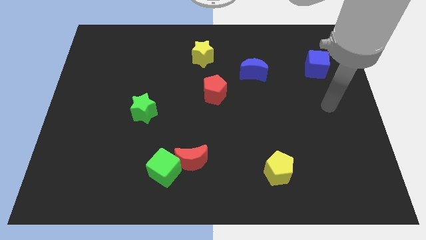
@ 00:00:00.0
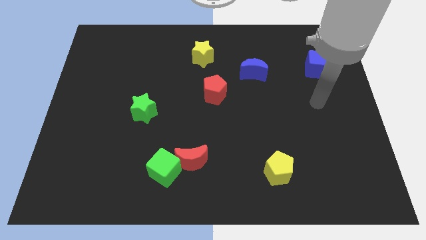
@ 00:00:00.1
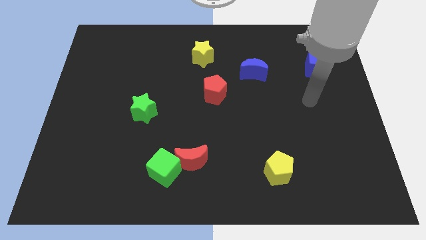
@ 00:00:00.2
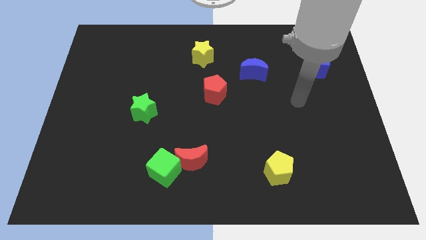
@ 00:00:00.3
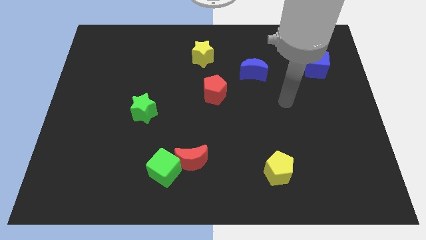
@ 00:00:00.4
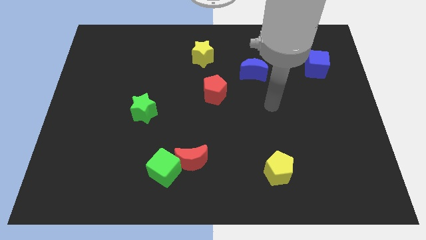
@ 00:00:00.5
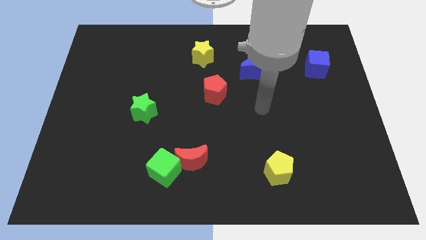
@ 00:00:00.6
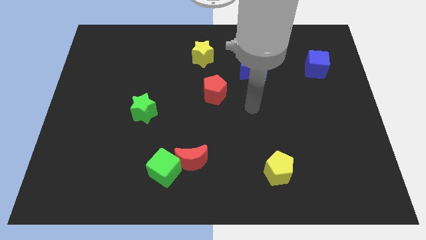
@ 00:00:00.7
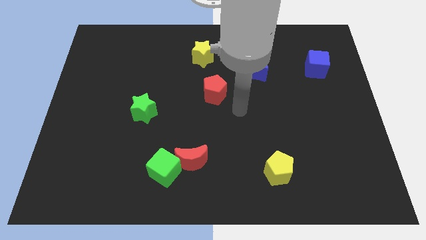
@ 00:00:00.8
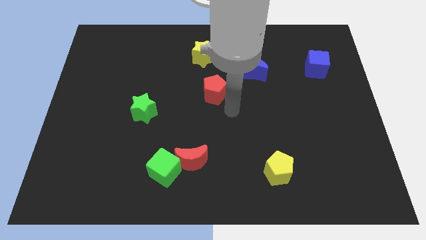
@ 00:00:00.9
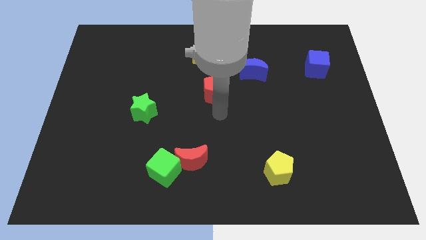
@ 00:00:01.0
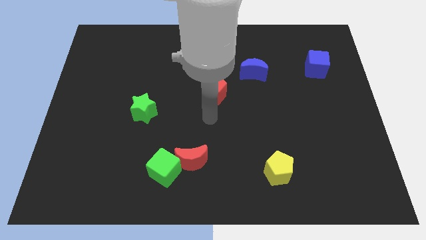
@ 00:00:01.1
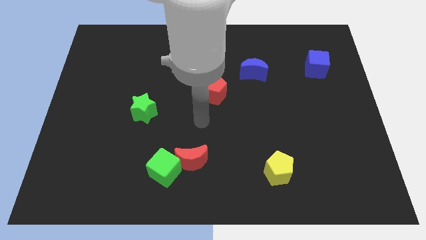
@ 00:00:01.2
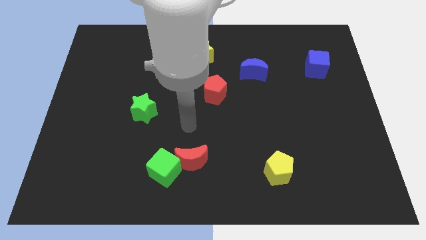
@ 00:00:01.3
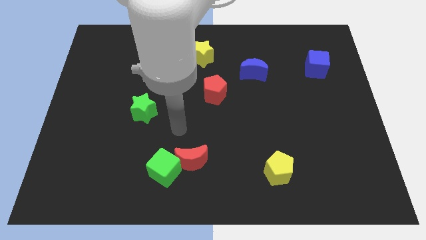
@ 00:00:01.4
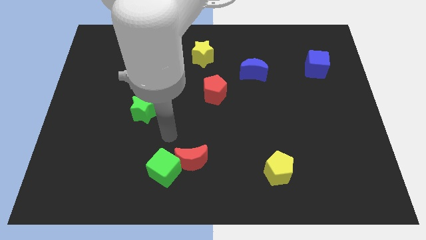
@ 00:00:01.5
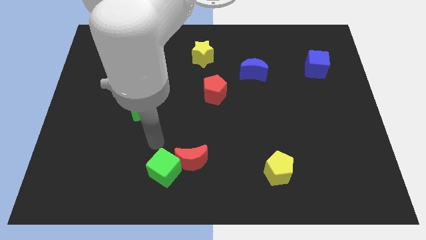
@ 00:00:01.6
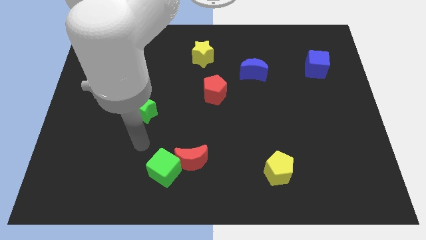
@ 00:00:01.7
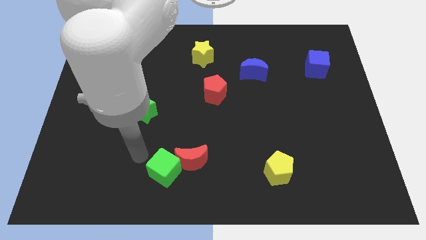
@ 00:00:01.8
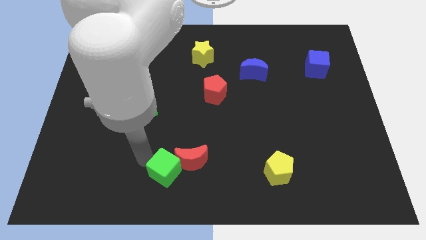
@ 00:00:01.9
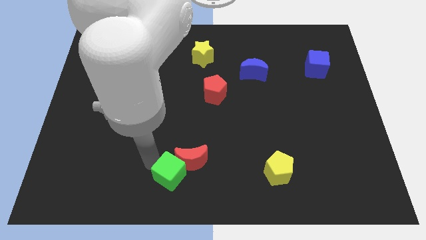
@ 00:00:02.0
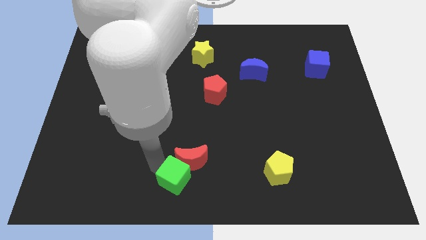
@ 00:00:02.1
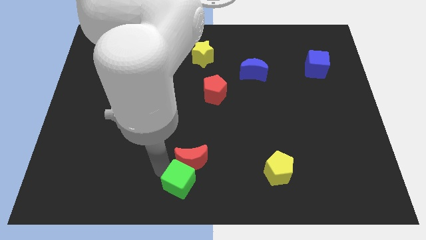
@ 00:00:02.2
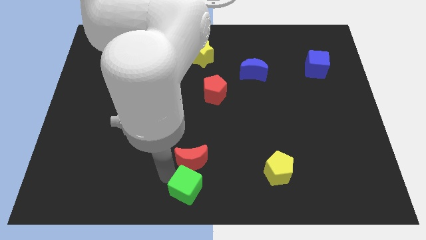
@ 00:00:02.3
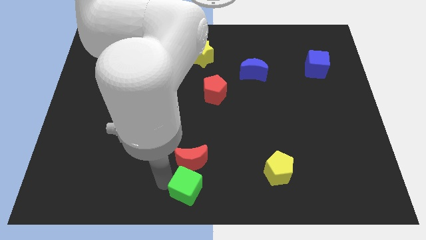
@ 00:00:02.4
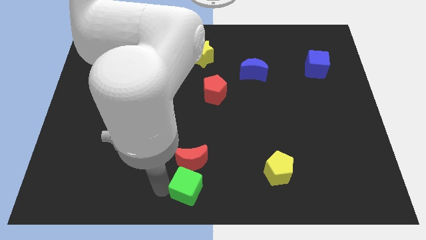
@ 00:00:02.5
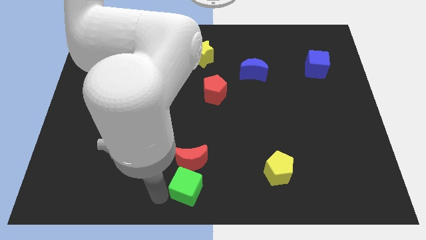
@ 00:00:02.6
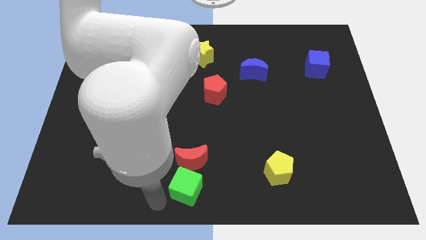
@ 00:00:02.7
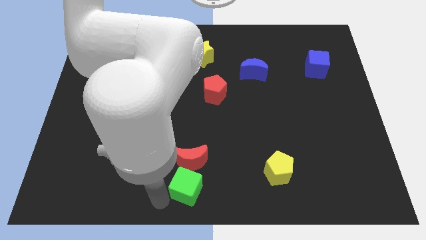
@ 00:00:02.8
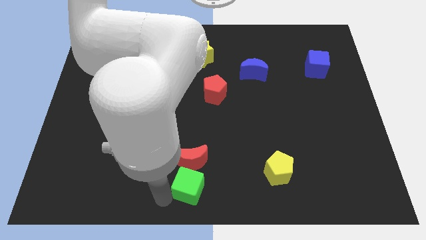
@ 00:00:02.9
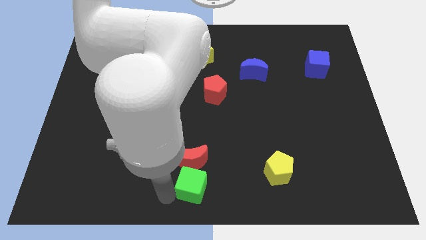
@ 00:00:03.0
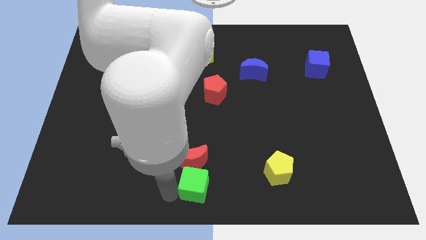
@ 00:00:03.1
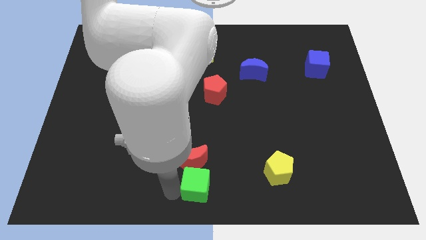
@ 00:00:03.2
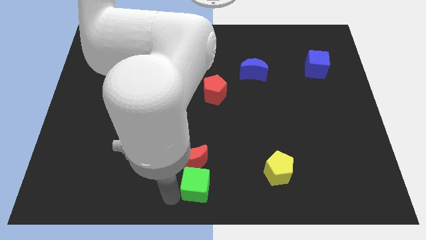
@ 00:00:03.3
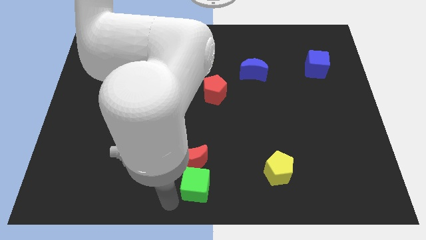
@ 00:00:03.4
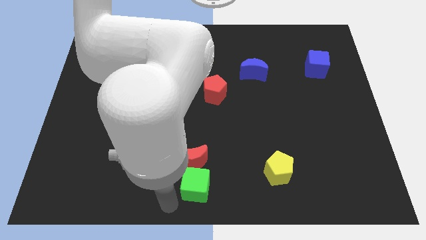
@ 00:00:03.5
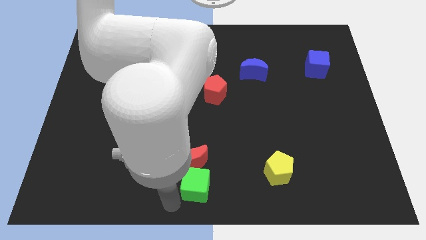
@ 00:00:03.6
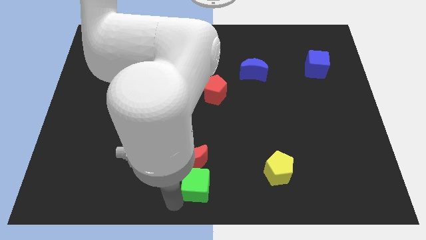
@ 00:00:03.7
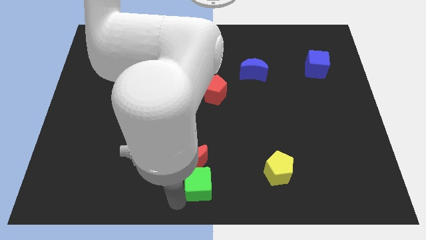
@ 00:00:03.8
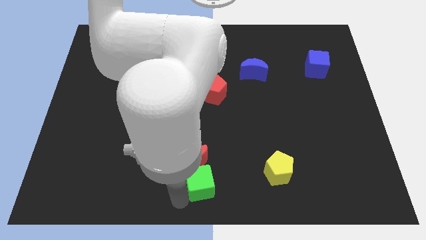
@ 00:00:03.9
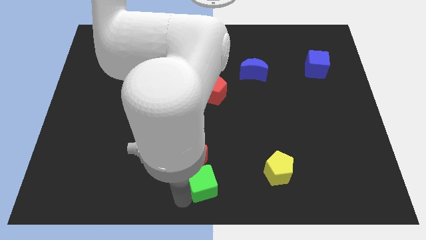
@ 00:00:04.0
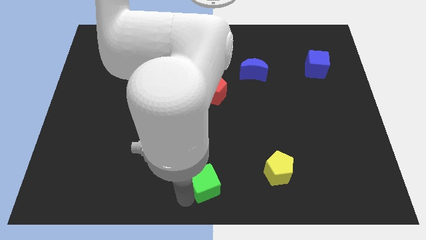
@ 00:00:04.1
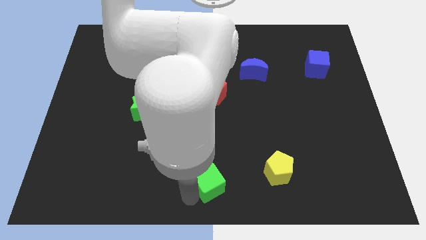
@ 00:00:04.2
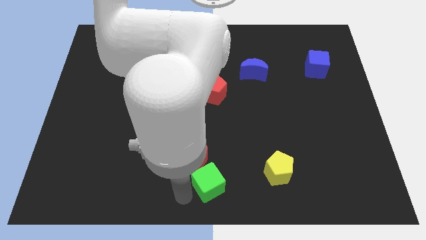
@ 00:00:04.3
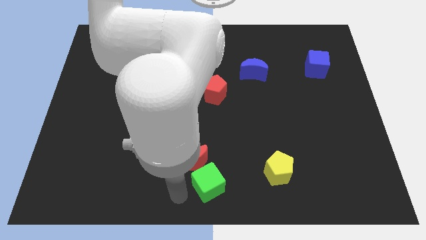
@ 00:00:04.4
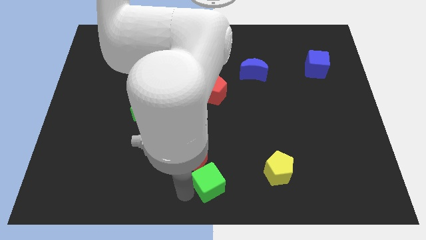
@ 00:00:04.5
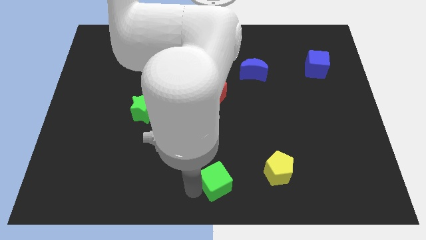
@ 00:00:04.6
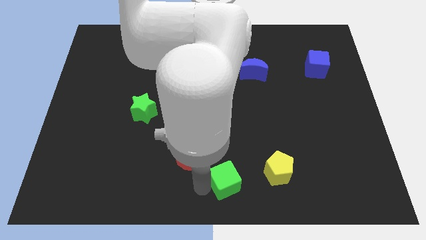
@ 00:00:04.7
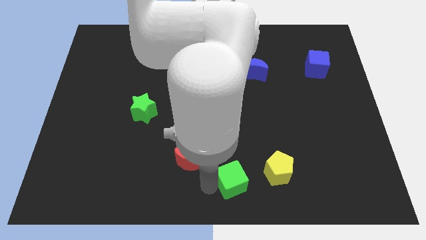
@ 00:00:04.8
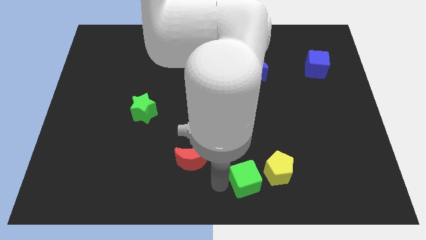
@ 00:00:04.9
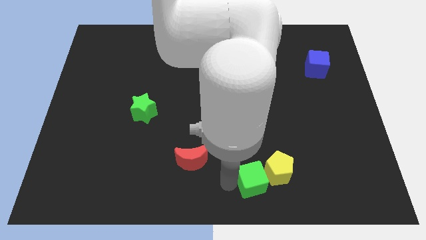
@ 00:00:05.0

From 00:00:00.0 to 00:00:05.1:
move the green cube towards the yellow pentagon

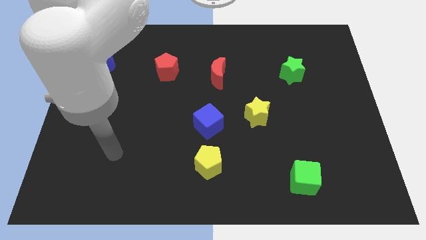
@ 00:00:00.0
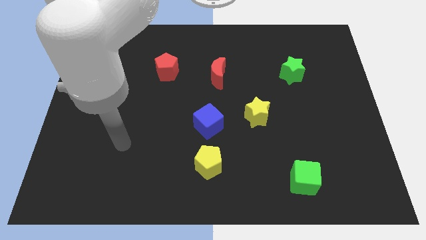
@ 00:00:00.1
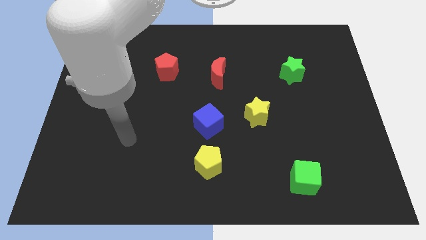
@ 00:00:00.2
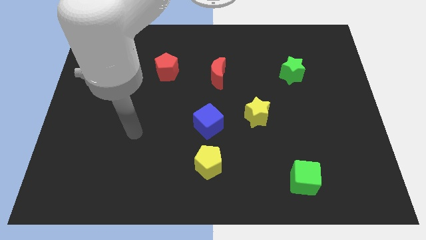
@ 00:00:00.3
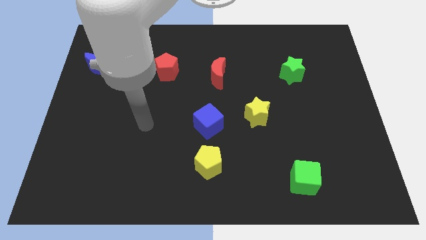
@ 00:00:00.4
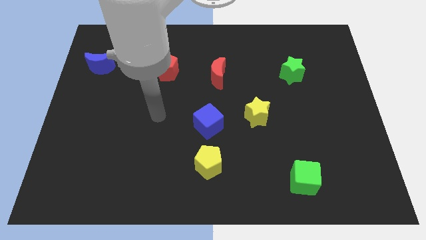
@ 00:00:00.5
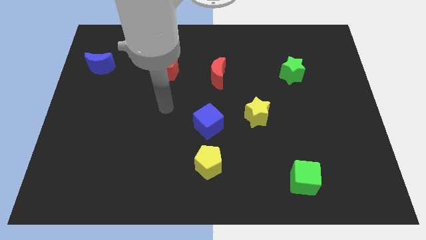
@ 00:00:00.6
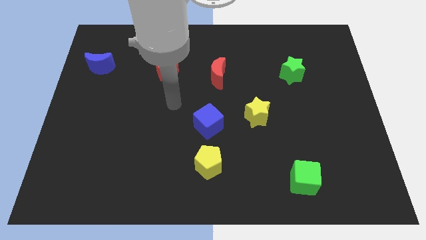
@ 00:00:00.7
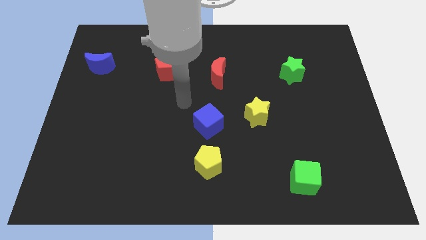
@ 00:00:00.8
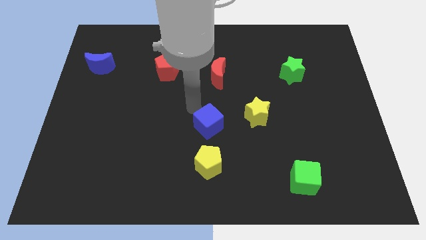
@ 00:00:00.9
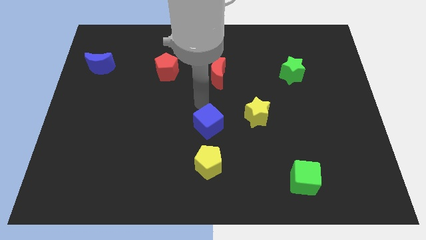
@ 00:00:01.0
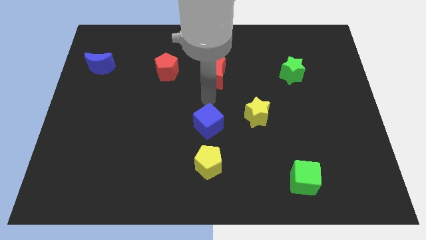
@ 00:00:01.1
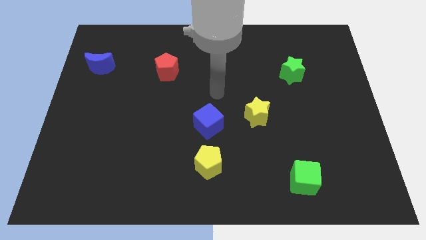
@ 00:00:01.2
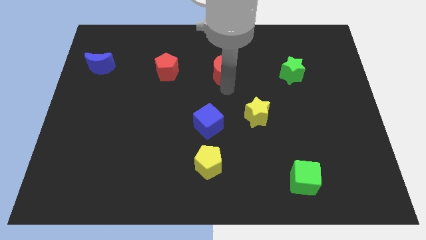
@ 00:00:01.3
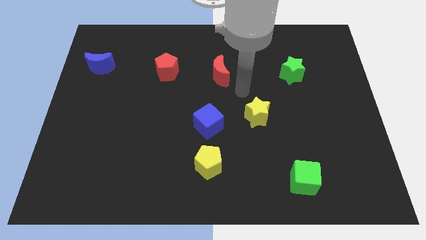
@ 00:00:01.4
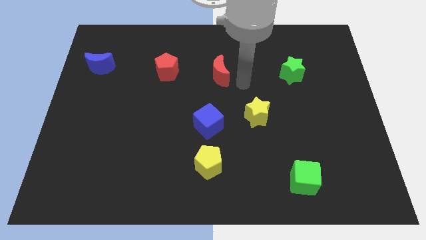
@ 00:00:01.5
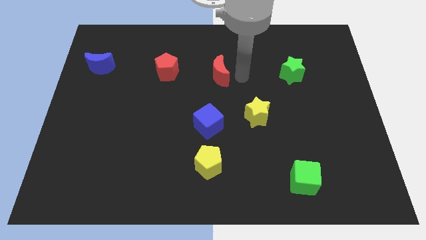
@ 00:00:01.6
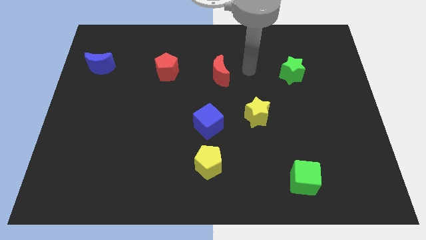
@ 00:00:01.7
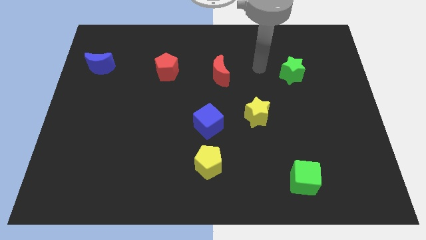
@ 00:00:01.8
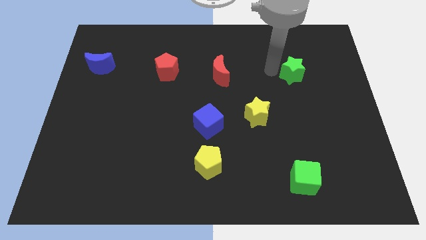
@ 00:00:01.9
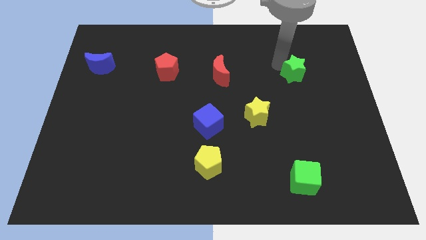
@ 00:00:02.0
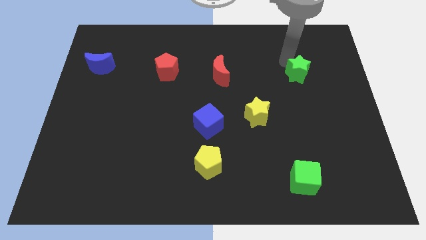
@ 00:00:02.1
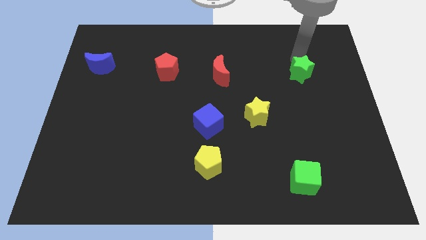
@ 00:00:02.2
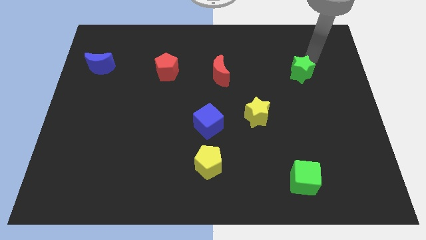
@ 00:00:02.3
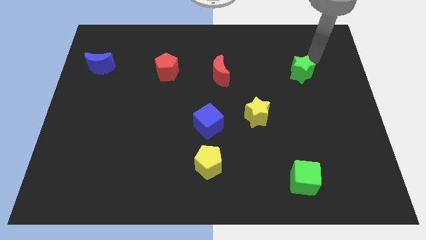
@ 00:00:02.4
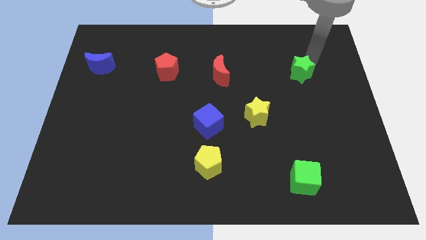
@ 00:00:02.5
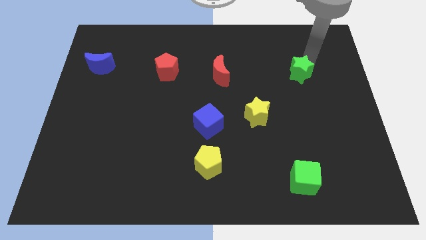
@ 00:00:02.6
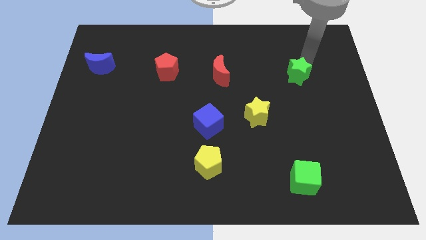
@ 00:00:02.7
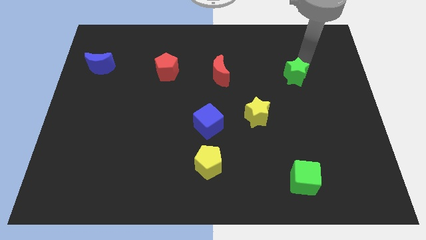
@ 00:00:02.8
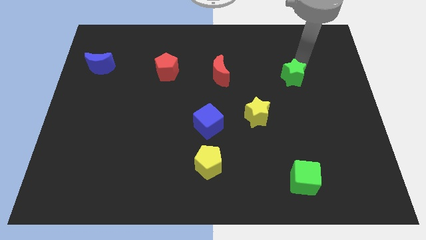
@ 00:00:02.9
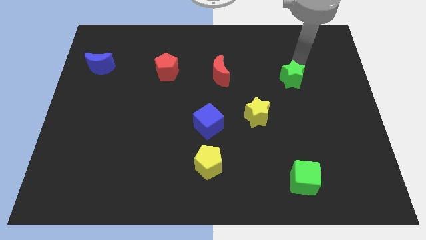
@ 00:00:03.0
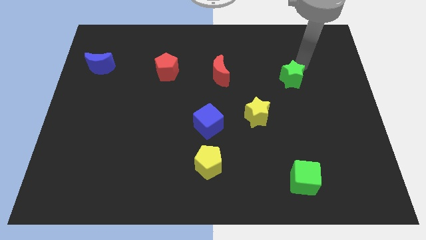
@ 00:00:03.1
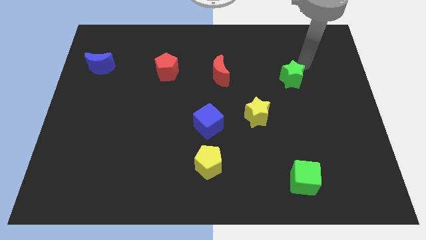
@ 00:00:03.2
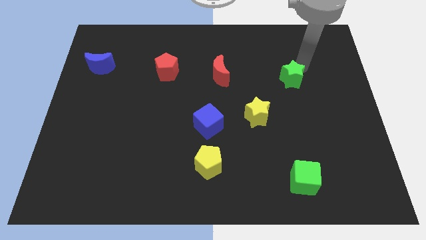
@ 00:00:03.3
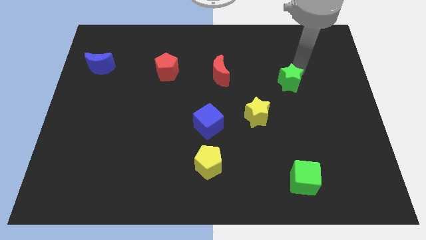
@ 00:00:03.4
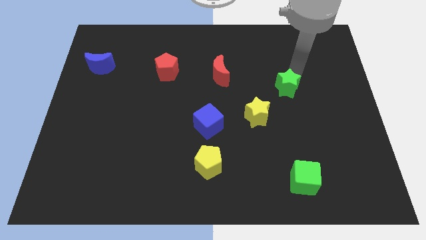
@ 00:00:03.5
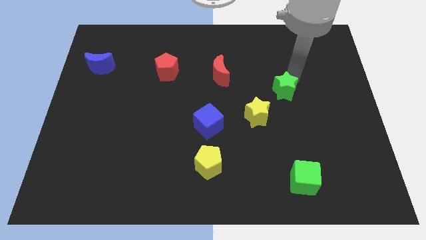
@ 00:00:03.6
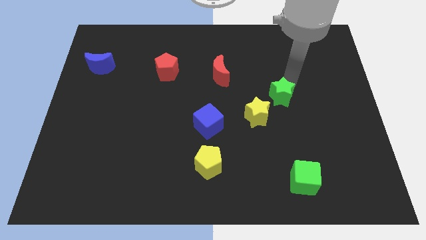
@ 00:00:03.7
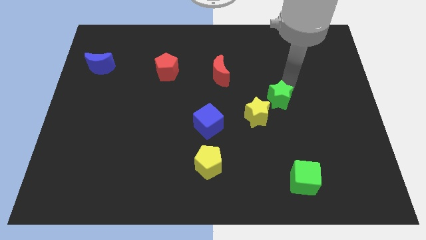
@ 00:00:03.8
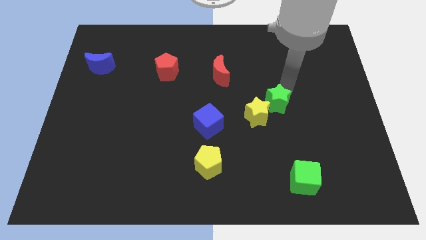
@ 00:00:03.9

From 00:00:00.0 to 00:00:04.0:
push the green star next to the yellow star
